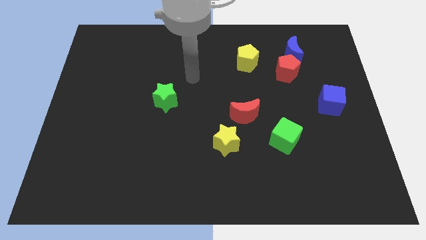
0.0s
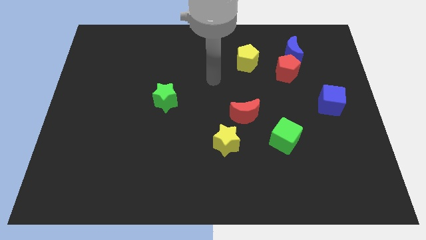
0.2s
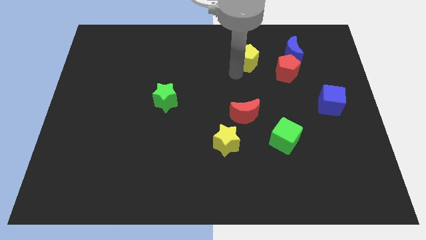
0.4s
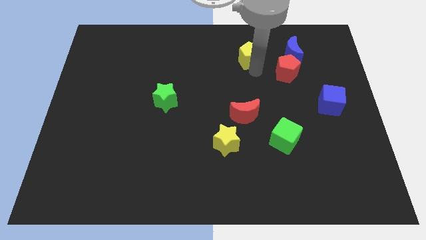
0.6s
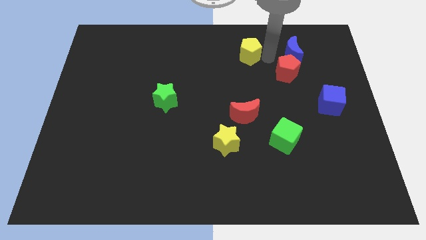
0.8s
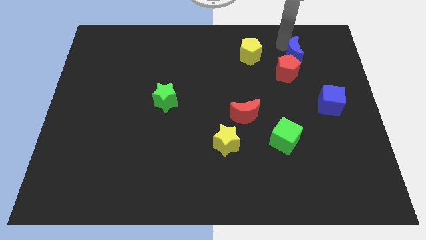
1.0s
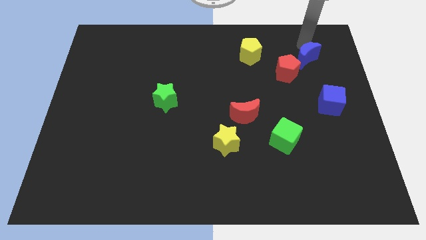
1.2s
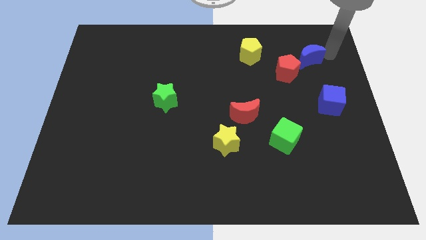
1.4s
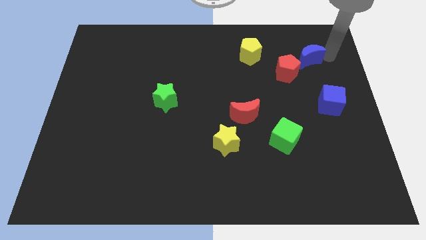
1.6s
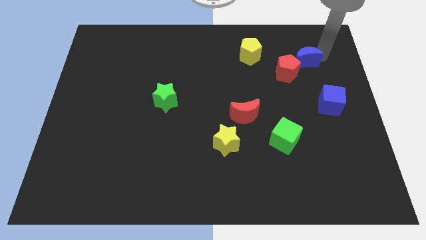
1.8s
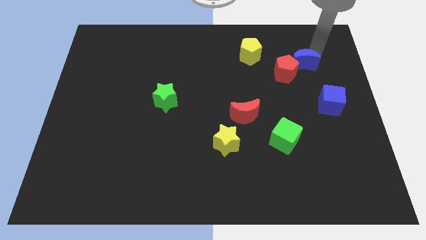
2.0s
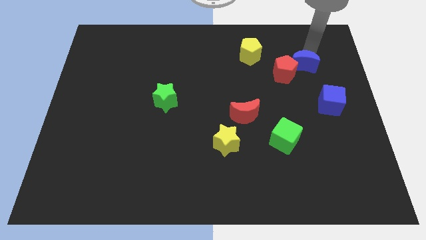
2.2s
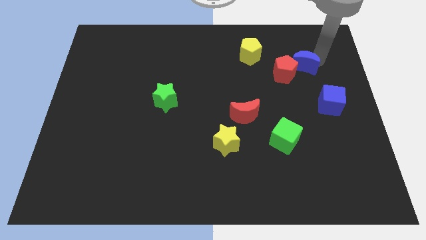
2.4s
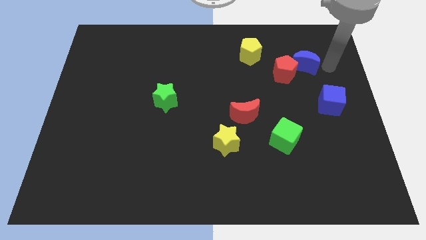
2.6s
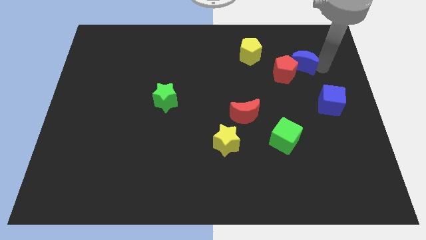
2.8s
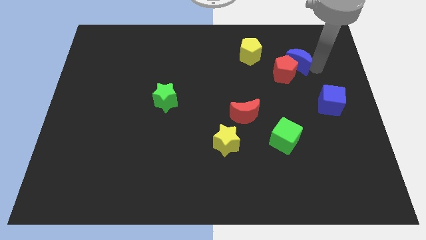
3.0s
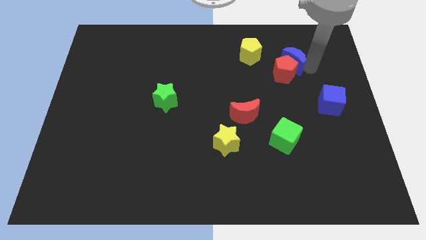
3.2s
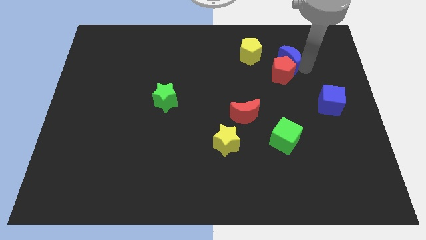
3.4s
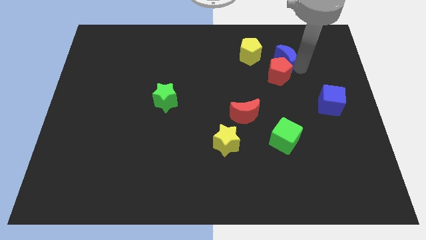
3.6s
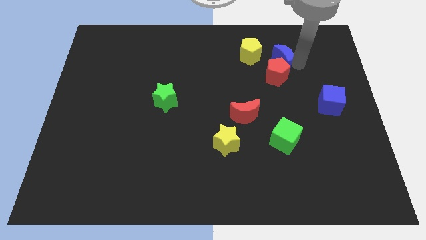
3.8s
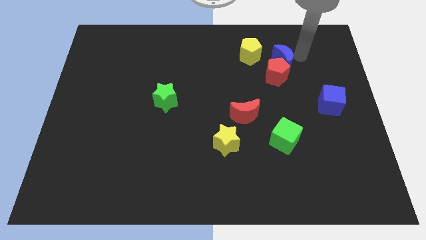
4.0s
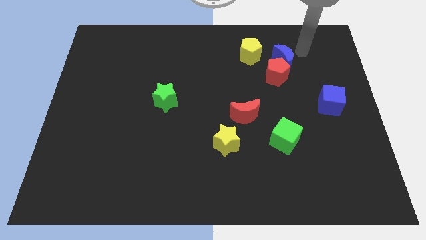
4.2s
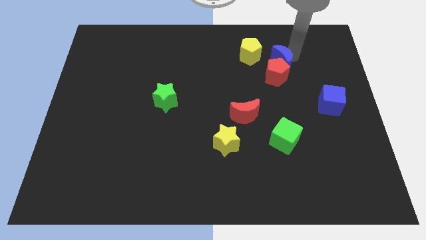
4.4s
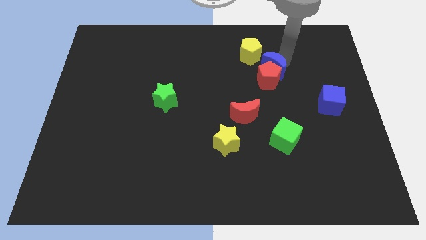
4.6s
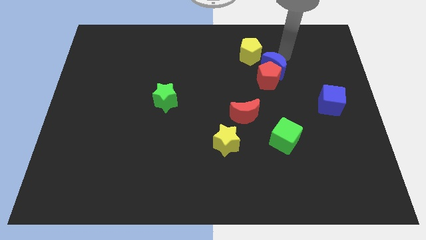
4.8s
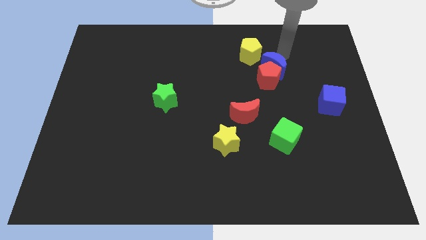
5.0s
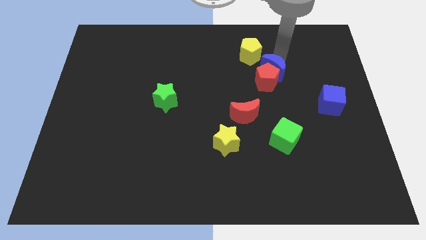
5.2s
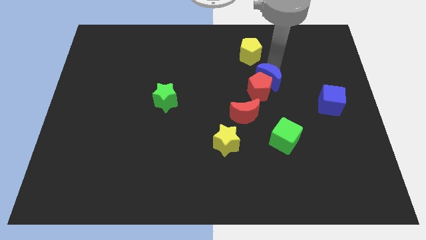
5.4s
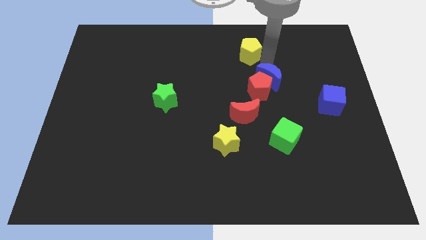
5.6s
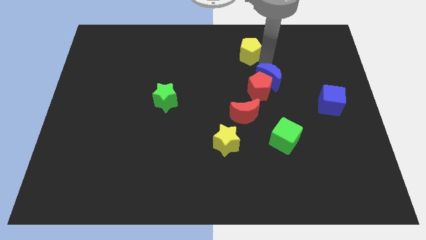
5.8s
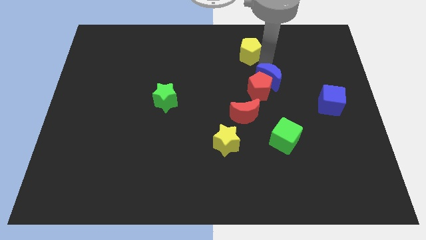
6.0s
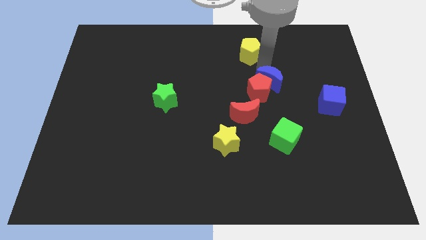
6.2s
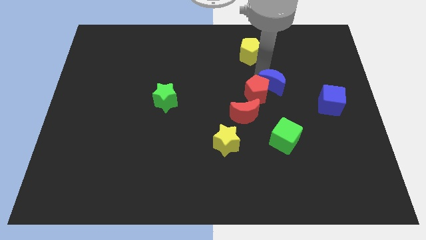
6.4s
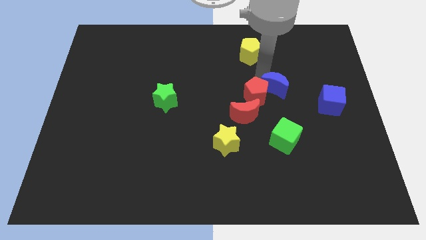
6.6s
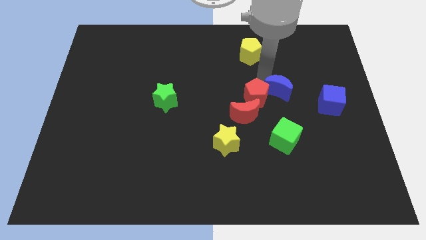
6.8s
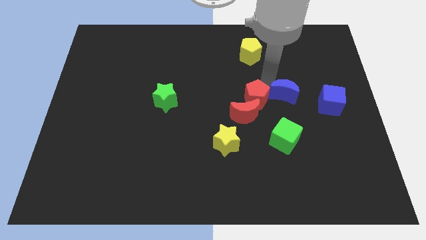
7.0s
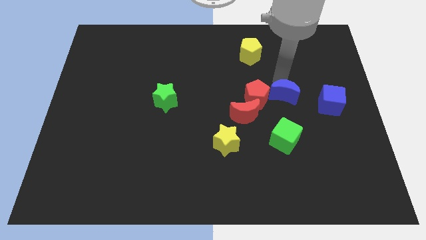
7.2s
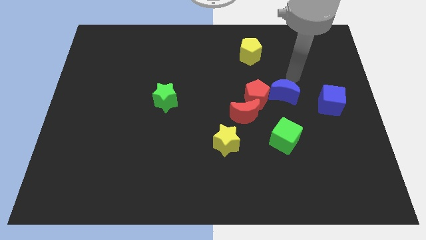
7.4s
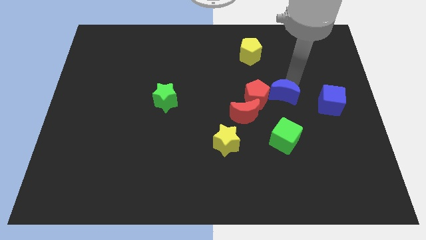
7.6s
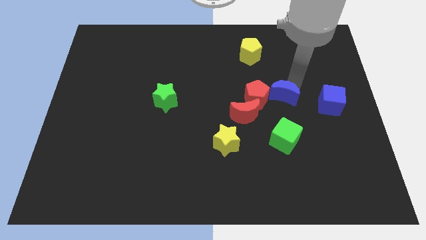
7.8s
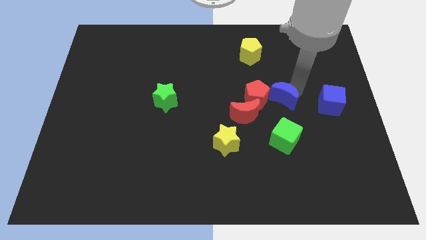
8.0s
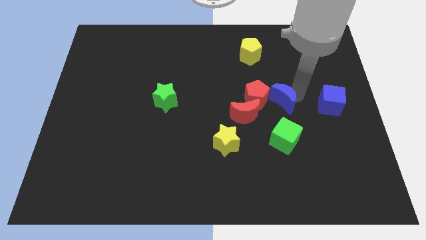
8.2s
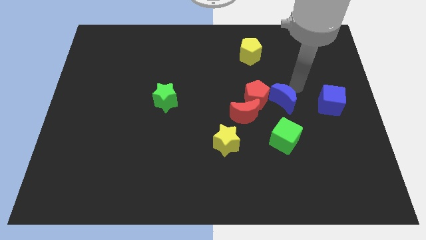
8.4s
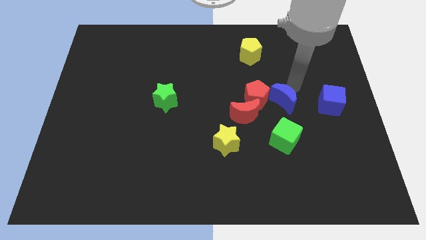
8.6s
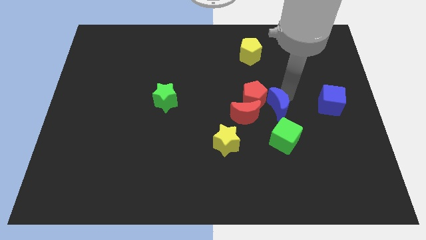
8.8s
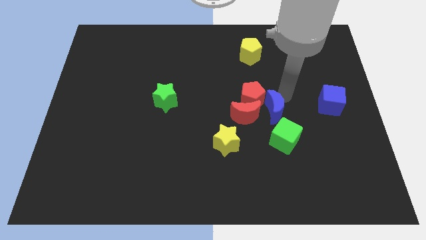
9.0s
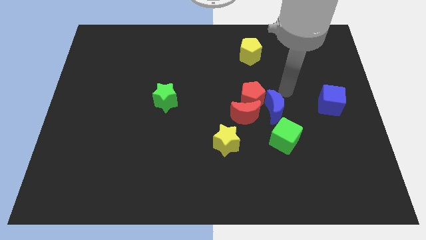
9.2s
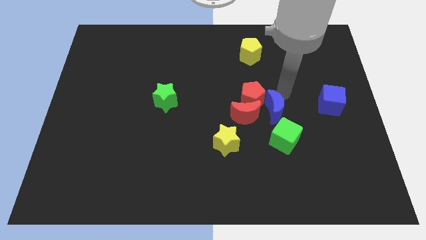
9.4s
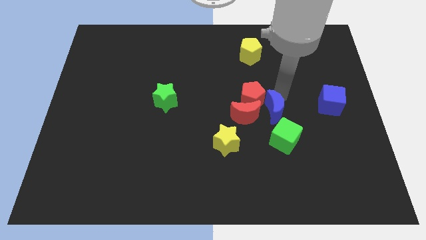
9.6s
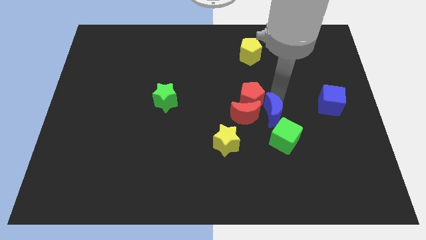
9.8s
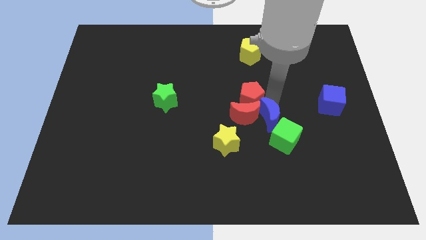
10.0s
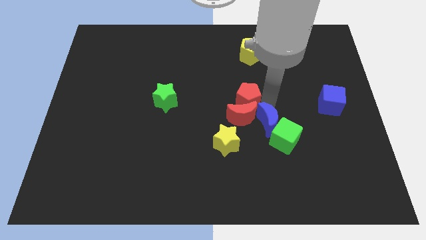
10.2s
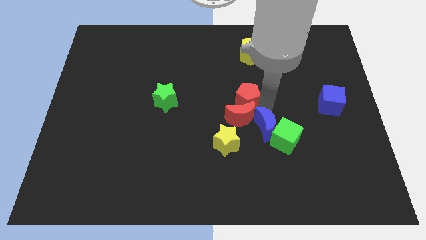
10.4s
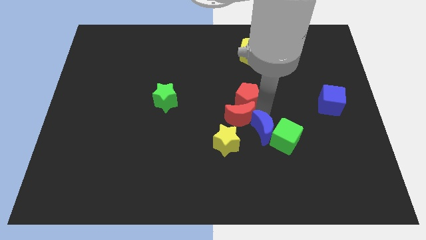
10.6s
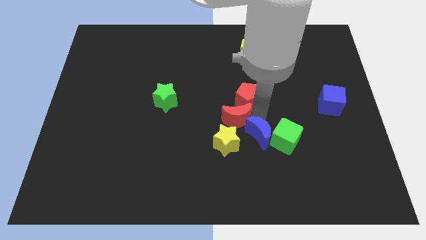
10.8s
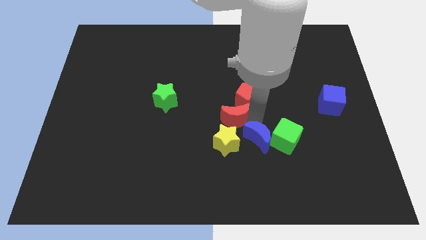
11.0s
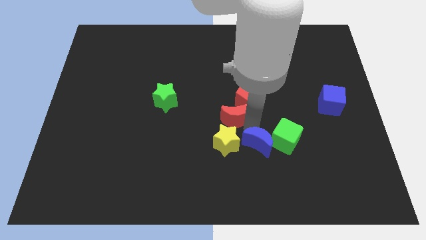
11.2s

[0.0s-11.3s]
move the blue moon to the bottom right of the yellow star

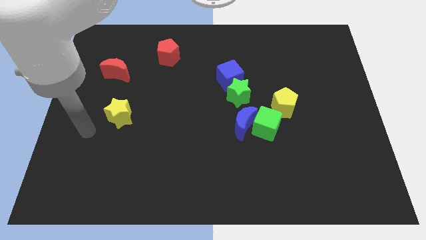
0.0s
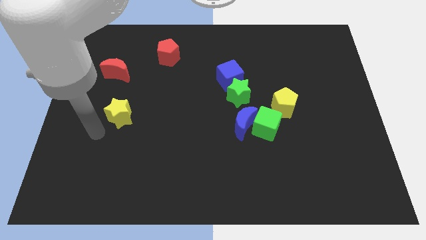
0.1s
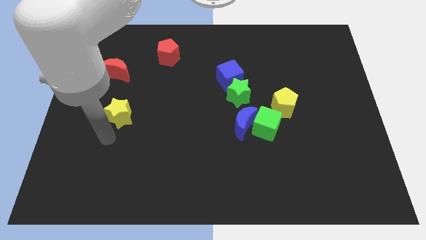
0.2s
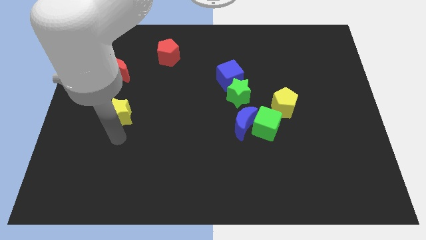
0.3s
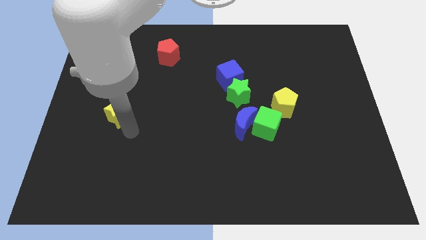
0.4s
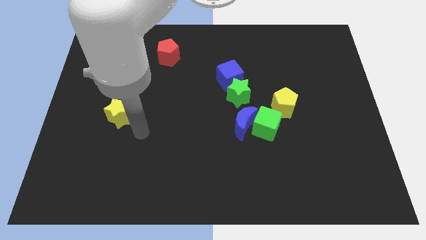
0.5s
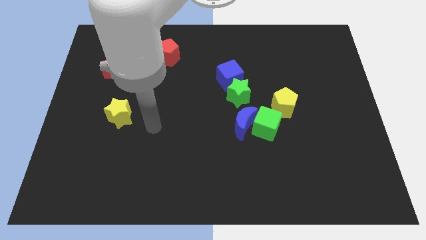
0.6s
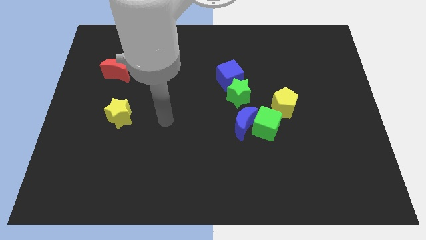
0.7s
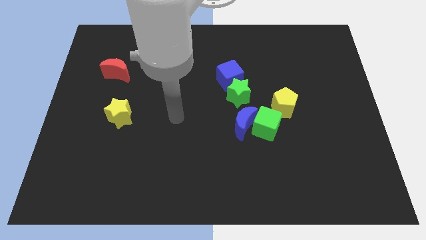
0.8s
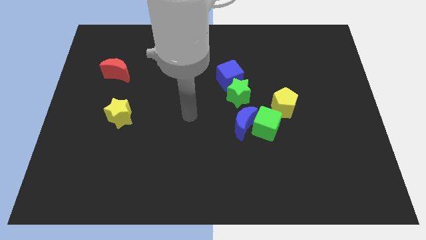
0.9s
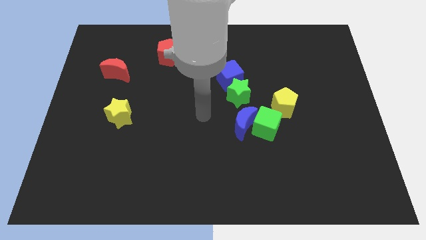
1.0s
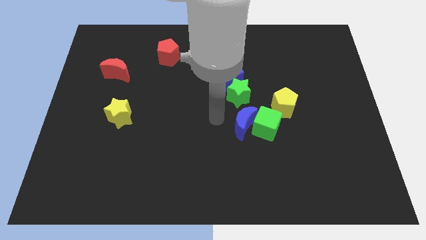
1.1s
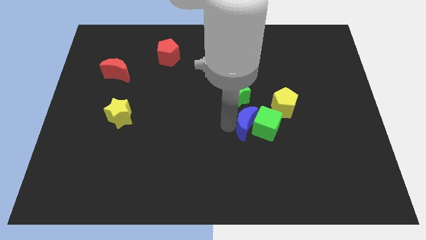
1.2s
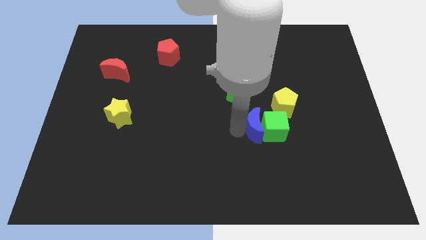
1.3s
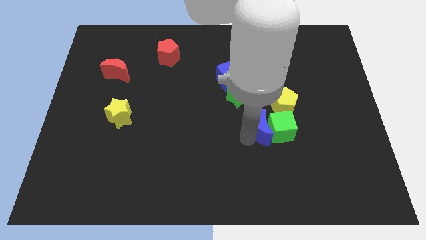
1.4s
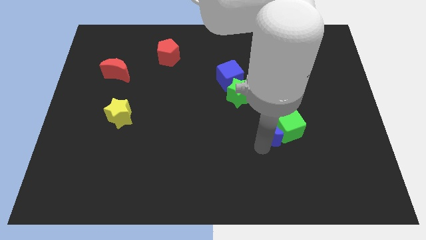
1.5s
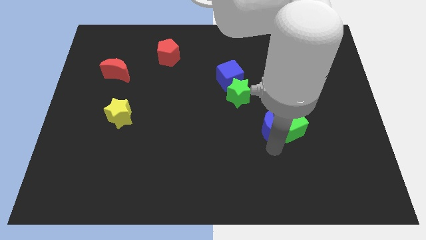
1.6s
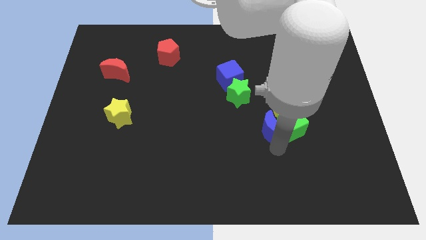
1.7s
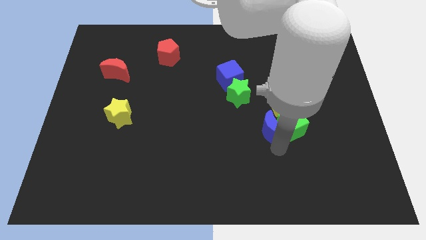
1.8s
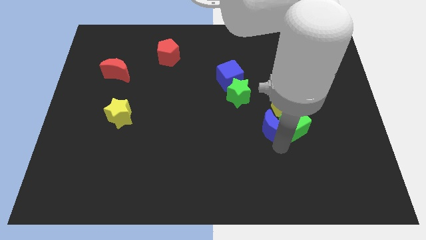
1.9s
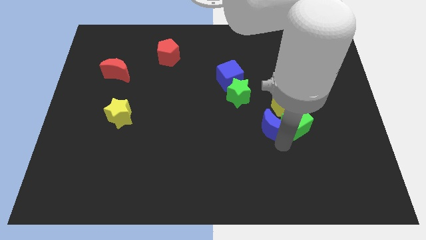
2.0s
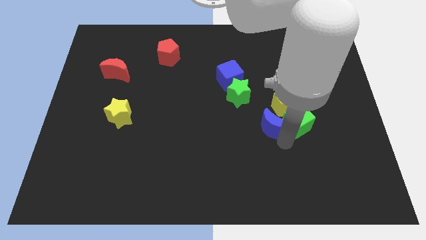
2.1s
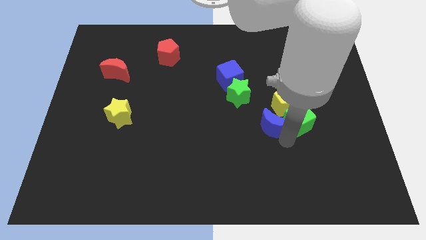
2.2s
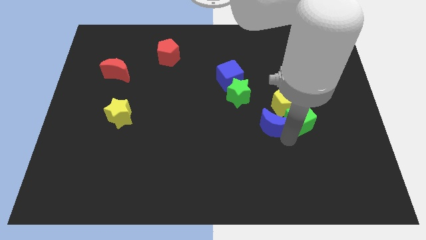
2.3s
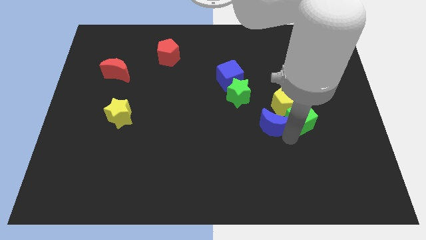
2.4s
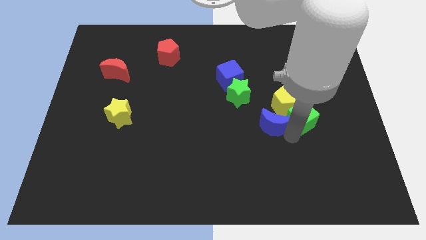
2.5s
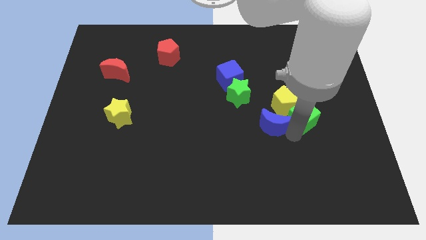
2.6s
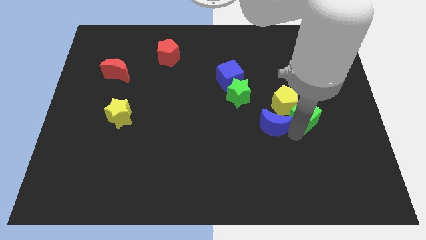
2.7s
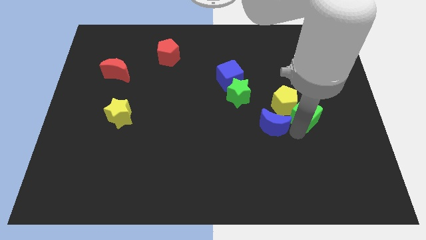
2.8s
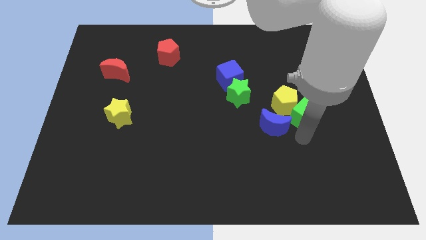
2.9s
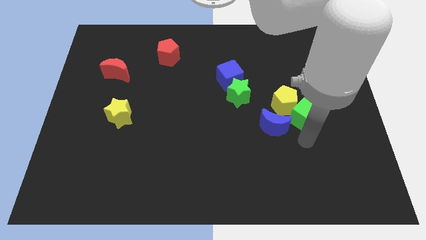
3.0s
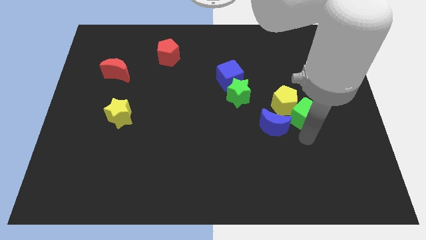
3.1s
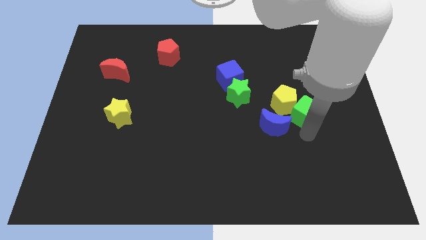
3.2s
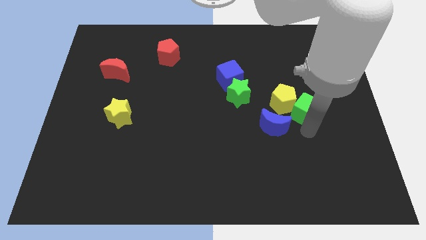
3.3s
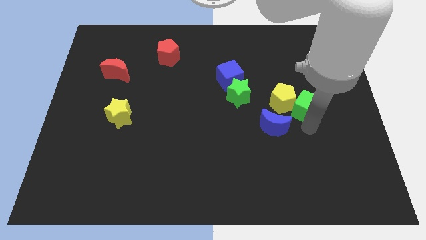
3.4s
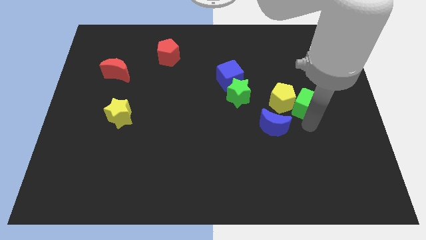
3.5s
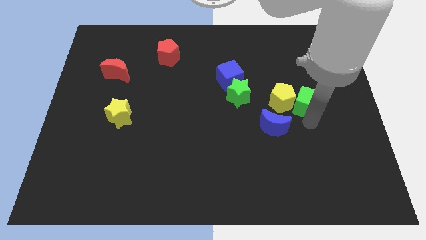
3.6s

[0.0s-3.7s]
push the green cube to the top right side of the yellow pentagon
